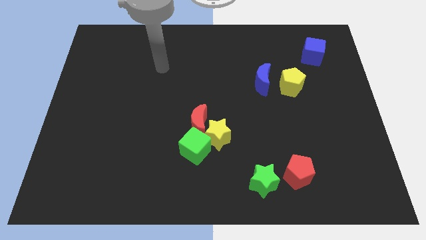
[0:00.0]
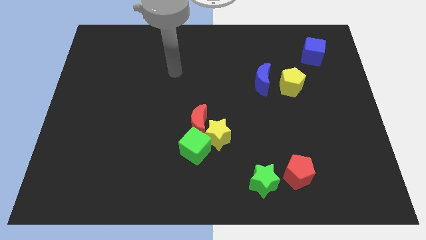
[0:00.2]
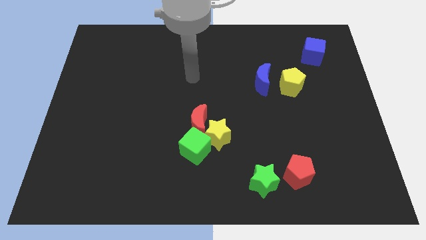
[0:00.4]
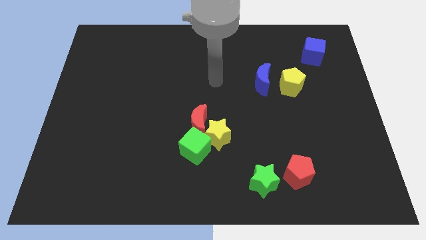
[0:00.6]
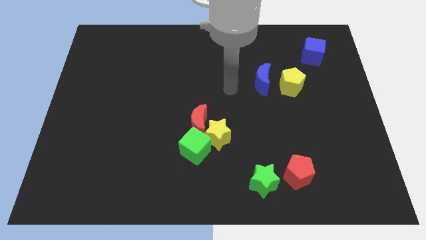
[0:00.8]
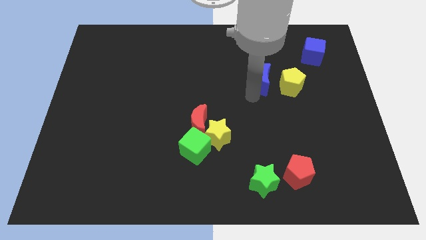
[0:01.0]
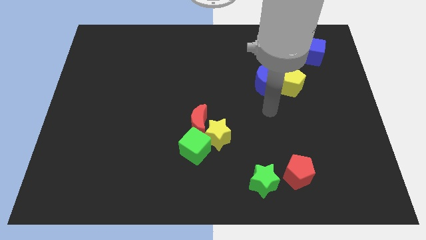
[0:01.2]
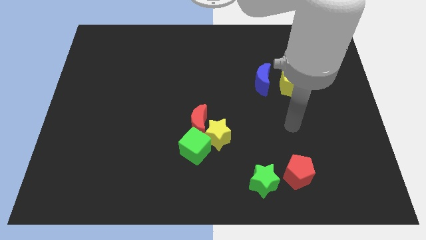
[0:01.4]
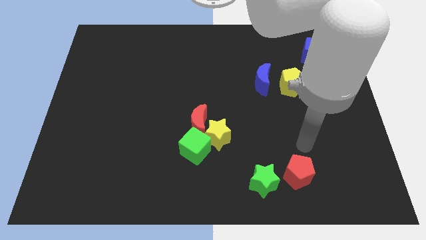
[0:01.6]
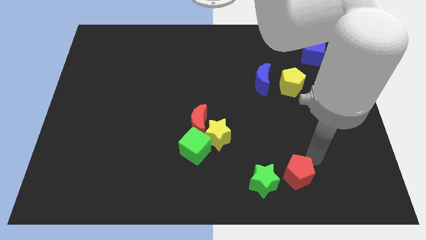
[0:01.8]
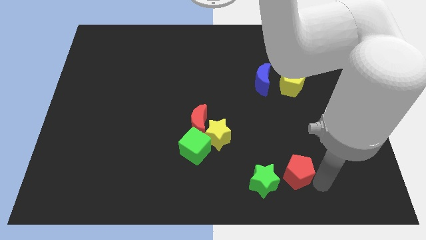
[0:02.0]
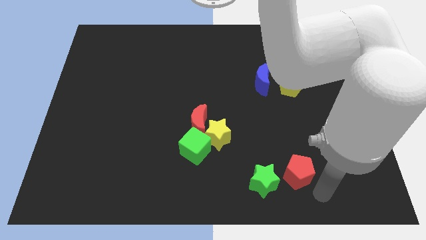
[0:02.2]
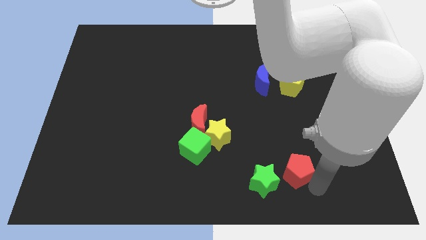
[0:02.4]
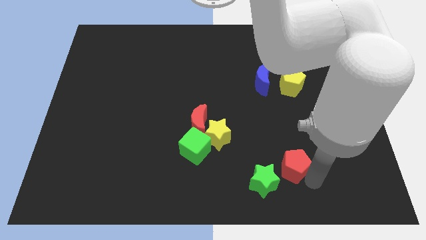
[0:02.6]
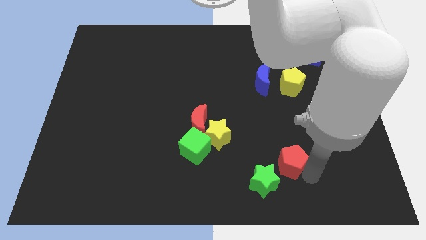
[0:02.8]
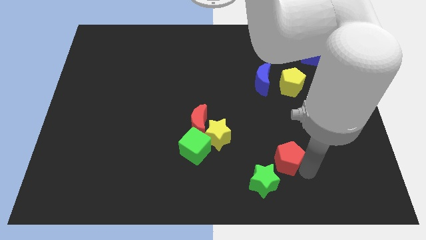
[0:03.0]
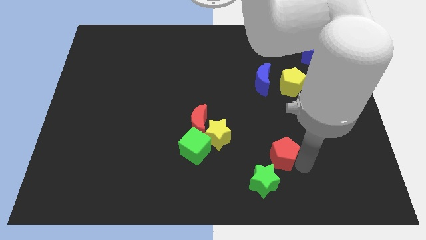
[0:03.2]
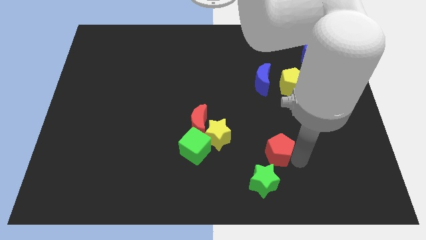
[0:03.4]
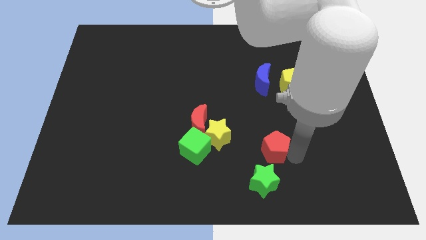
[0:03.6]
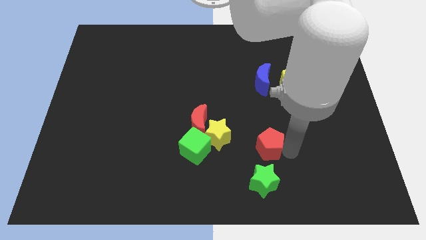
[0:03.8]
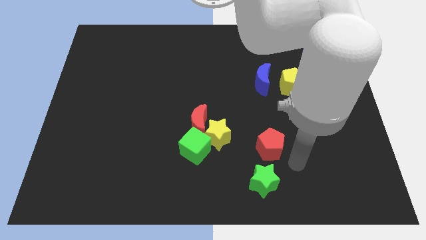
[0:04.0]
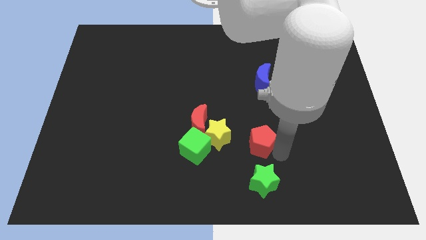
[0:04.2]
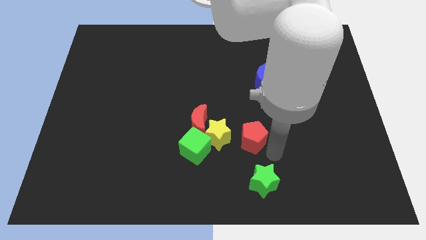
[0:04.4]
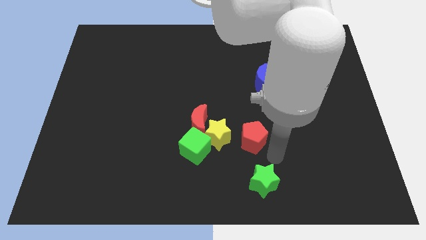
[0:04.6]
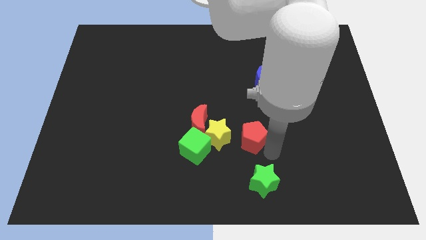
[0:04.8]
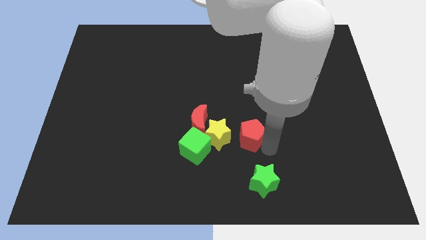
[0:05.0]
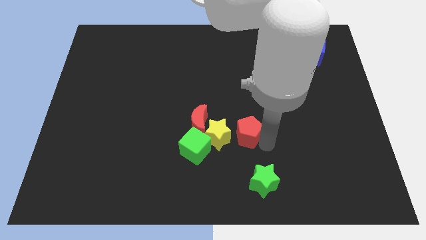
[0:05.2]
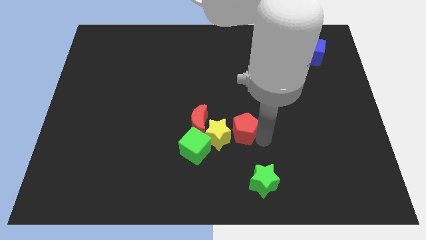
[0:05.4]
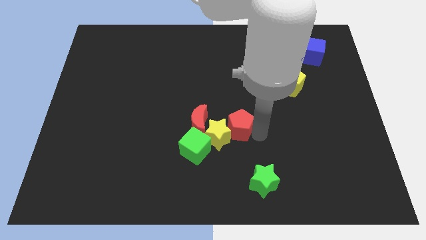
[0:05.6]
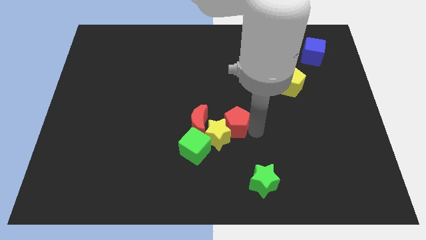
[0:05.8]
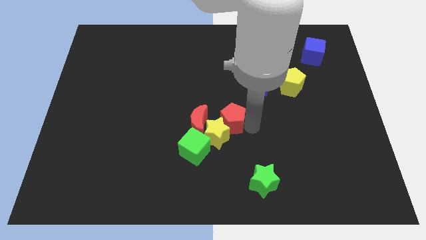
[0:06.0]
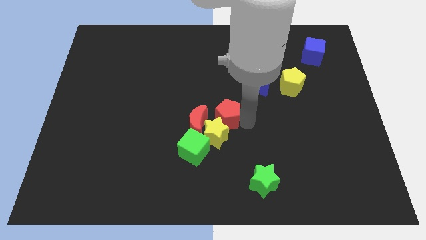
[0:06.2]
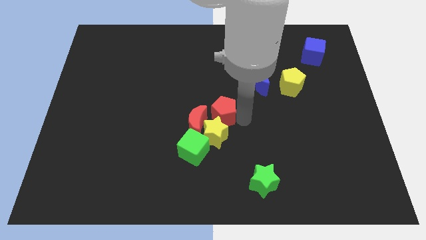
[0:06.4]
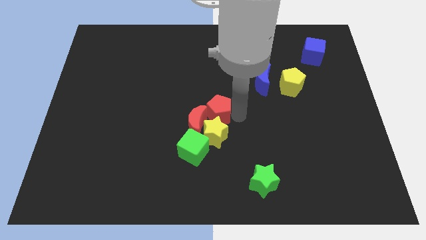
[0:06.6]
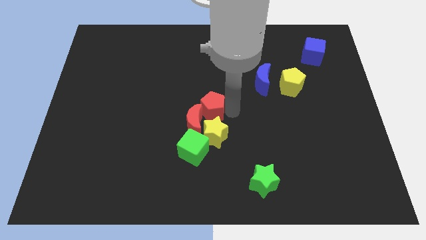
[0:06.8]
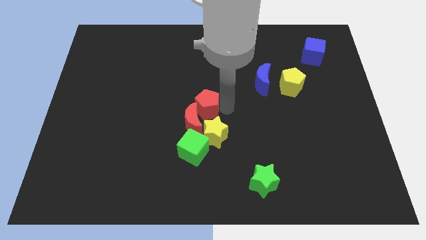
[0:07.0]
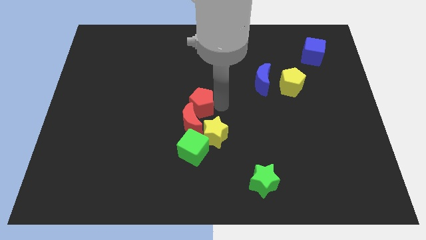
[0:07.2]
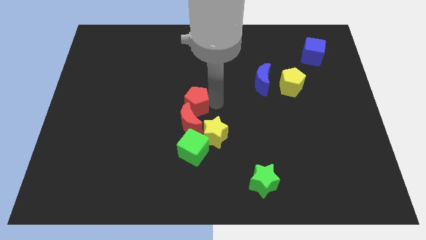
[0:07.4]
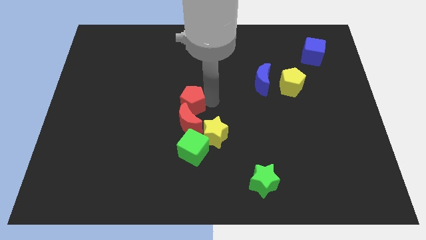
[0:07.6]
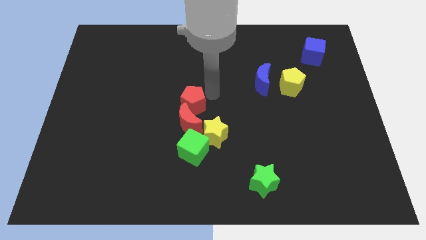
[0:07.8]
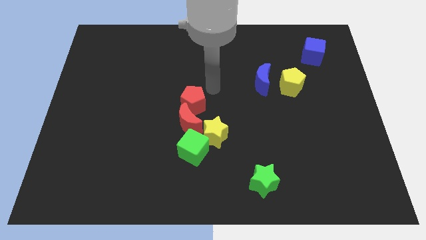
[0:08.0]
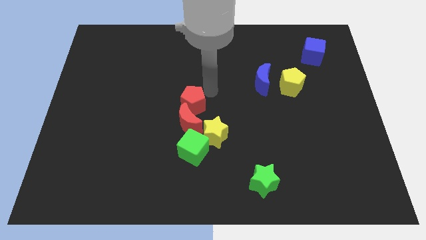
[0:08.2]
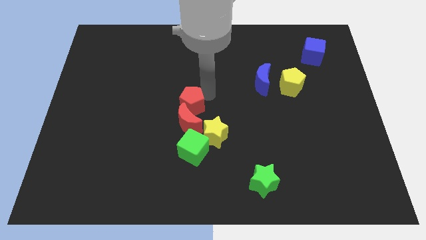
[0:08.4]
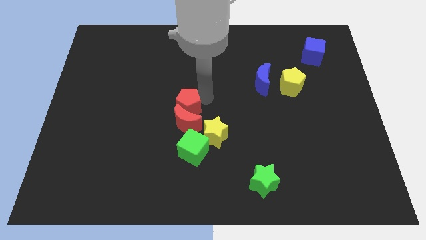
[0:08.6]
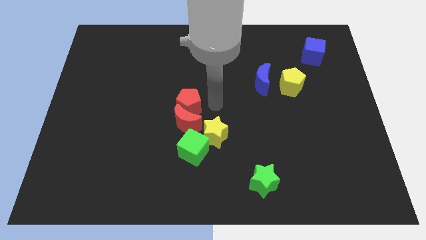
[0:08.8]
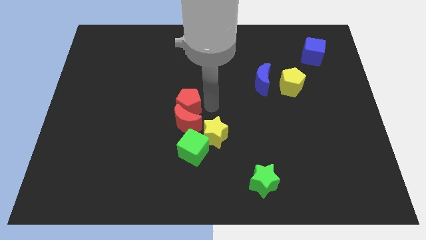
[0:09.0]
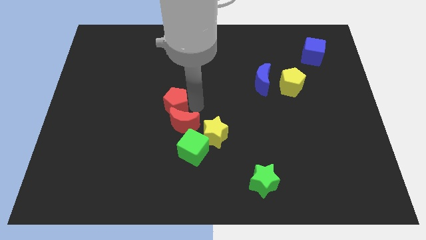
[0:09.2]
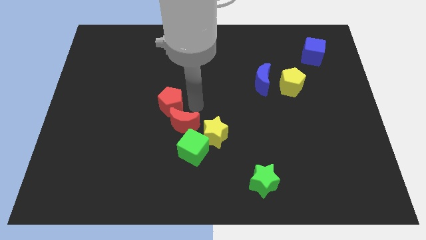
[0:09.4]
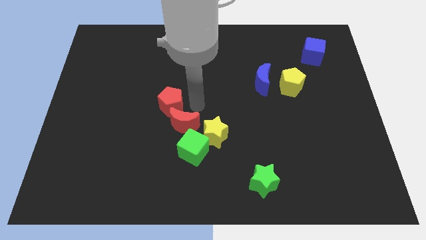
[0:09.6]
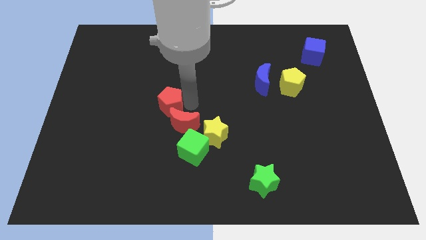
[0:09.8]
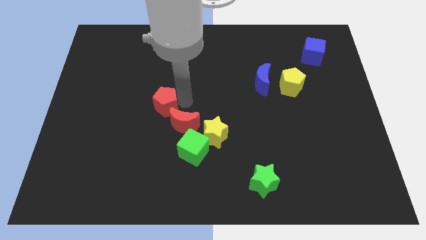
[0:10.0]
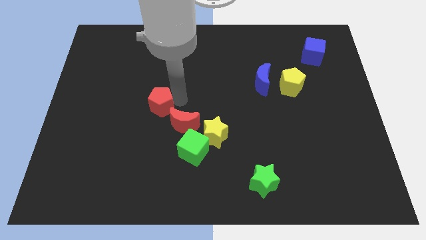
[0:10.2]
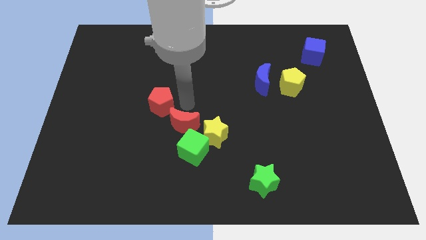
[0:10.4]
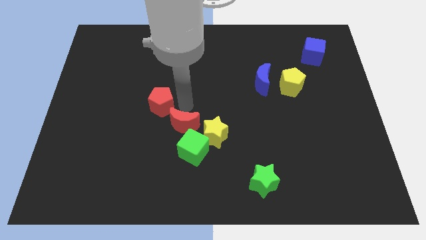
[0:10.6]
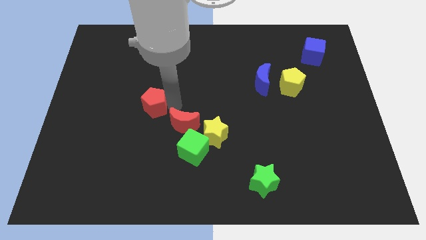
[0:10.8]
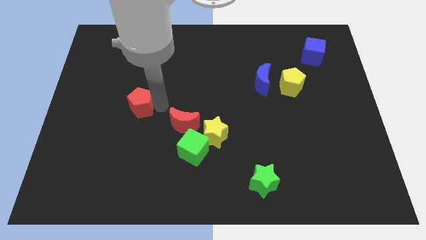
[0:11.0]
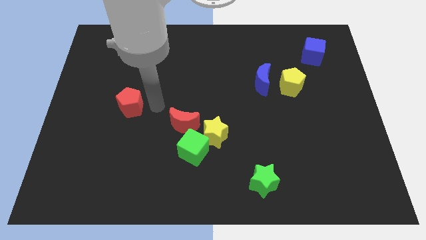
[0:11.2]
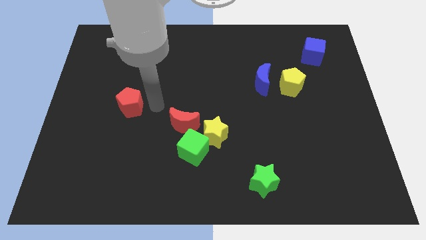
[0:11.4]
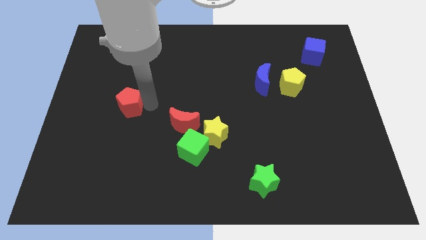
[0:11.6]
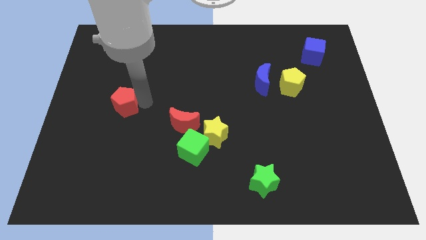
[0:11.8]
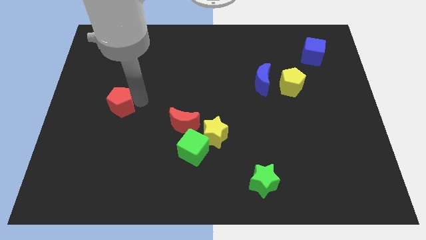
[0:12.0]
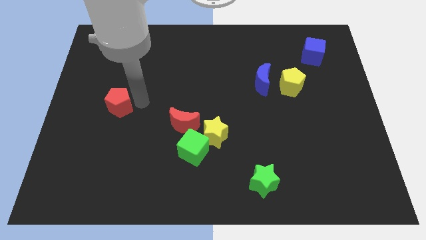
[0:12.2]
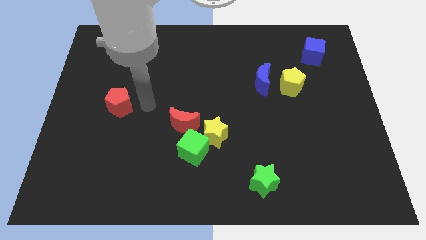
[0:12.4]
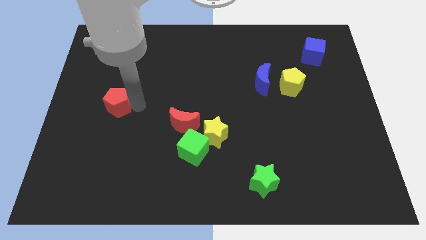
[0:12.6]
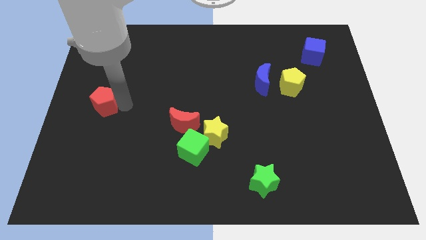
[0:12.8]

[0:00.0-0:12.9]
move the red pentagon to the left side of the board

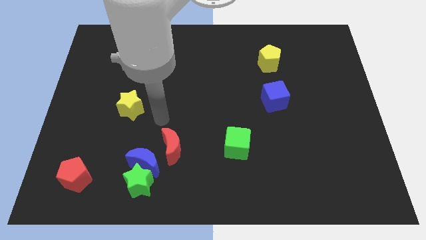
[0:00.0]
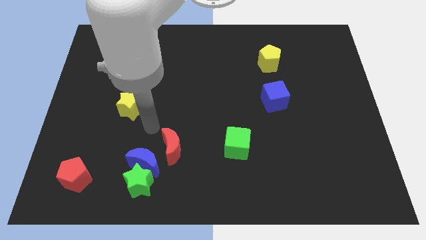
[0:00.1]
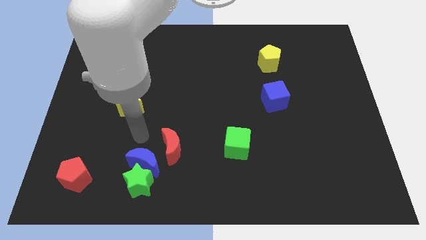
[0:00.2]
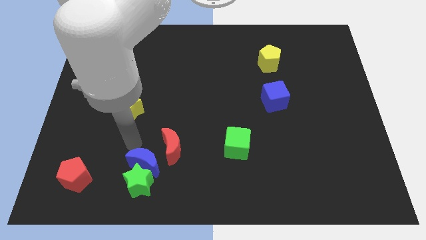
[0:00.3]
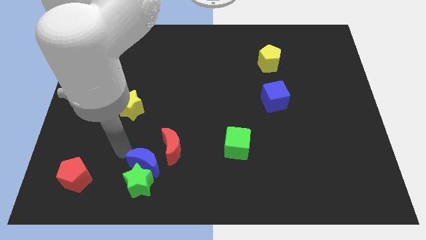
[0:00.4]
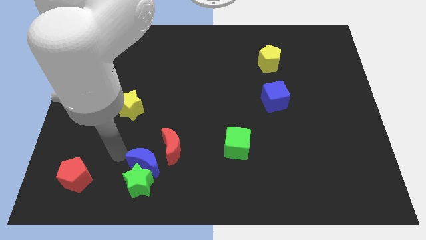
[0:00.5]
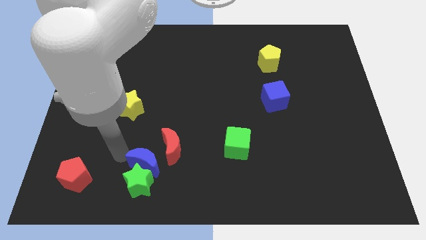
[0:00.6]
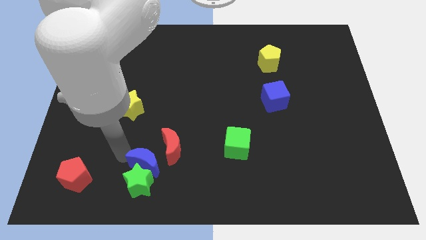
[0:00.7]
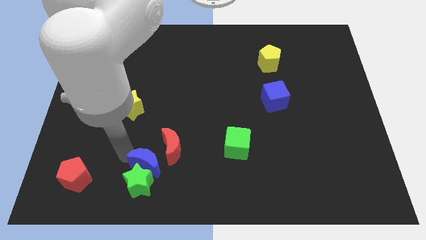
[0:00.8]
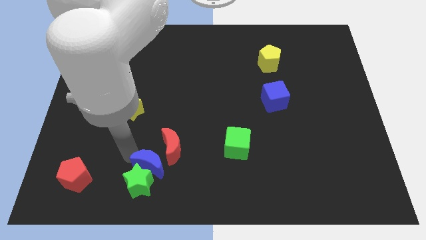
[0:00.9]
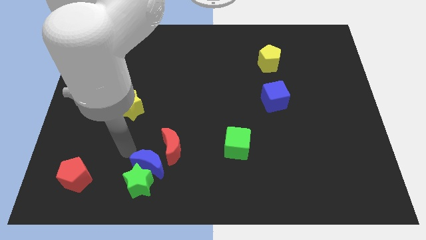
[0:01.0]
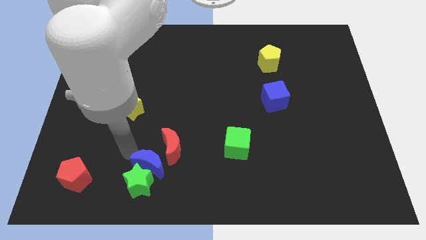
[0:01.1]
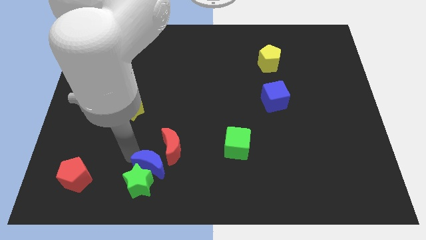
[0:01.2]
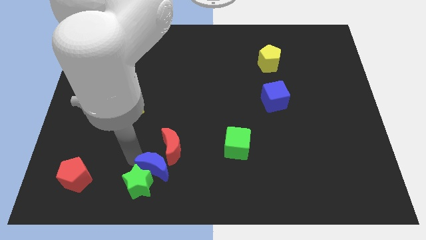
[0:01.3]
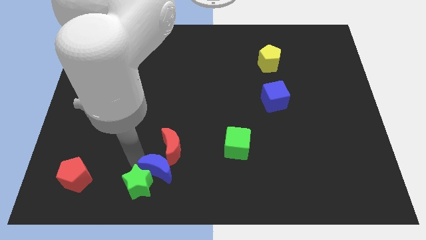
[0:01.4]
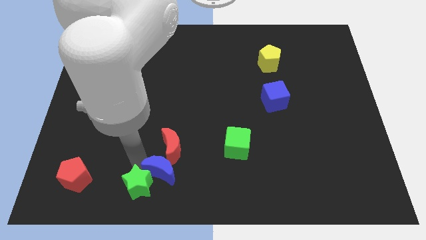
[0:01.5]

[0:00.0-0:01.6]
push the blue moon to the bottom side
